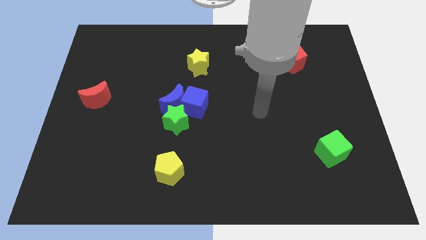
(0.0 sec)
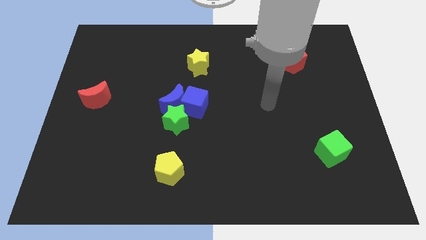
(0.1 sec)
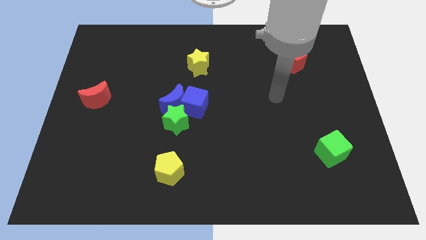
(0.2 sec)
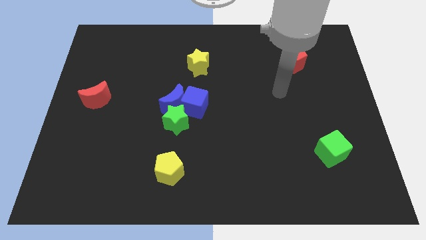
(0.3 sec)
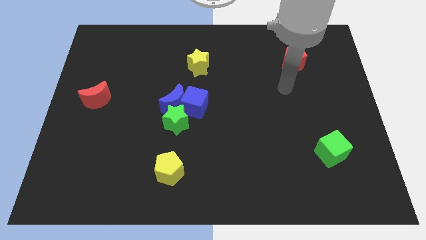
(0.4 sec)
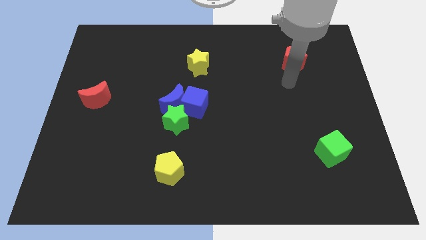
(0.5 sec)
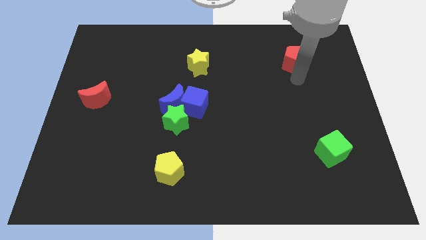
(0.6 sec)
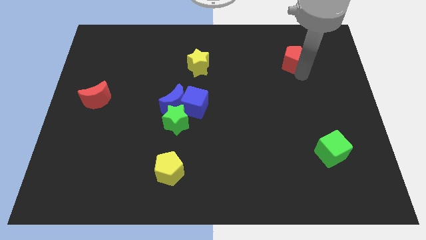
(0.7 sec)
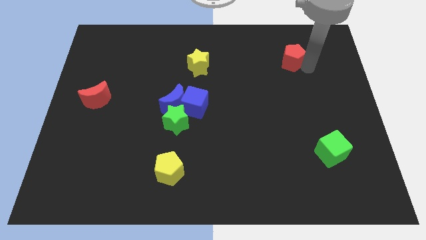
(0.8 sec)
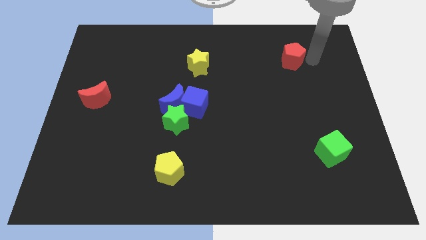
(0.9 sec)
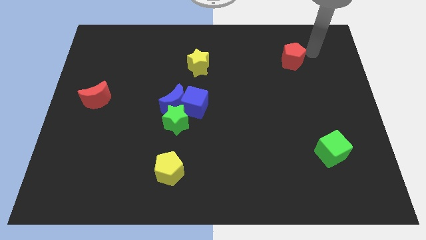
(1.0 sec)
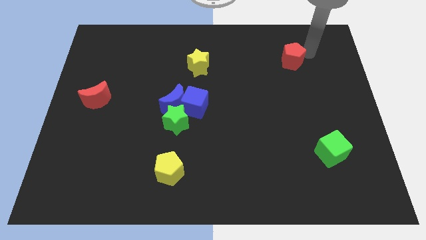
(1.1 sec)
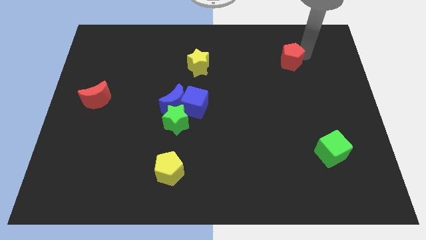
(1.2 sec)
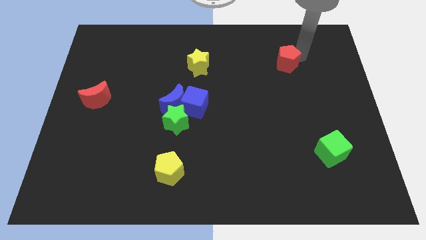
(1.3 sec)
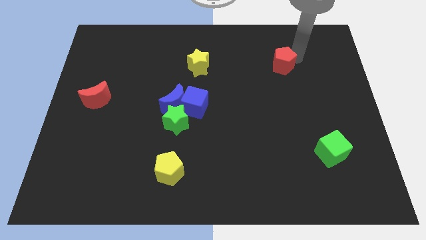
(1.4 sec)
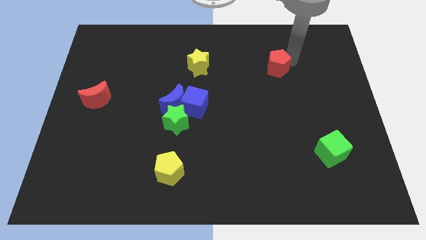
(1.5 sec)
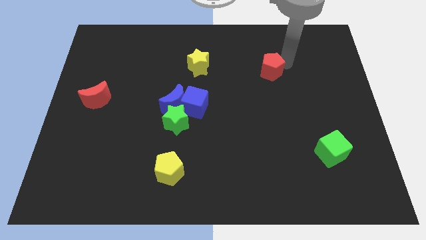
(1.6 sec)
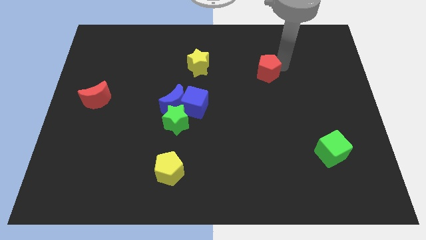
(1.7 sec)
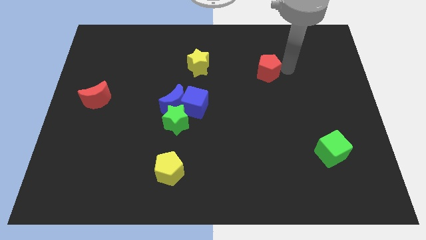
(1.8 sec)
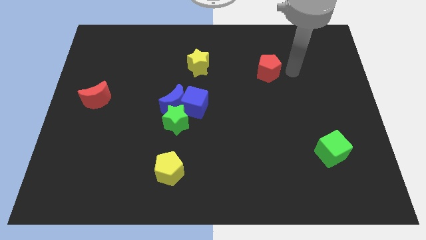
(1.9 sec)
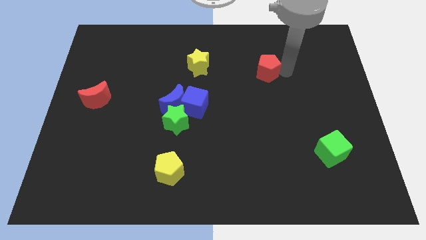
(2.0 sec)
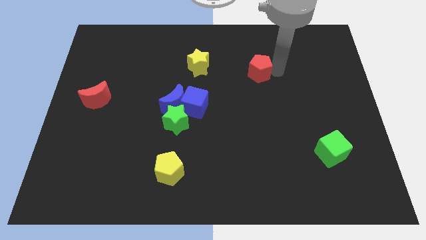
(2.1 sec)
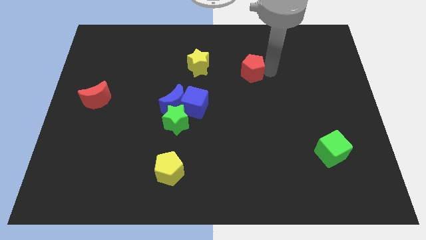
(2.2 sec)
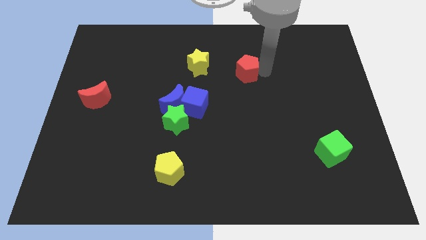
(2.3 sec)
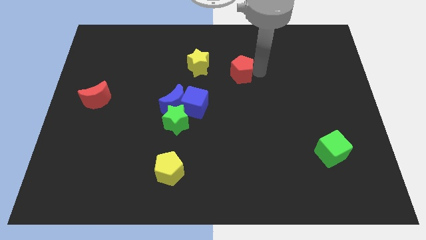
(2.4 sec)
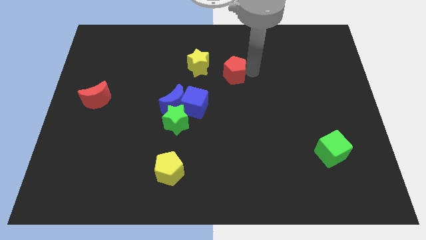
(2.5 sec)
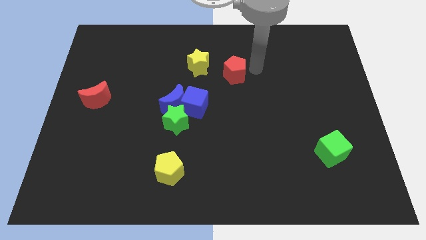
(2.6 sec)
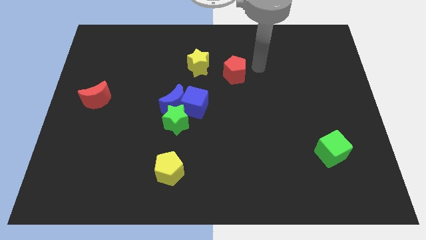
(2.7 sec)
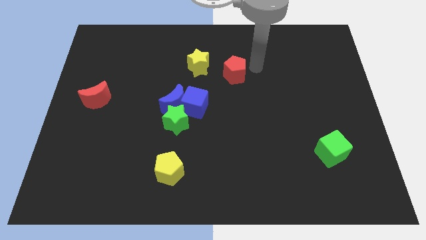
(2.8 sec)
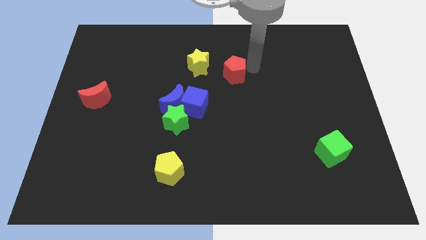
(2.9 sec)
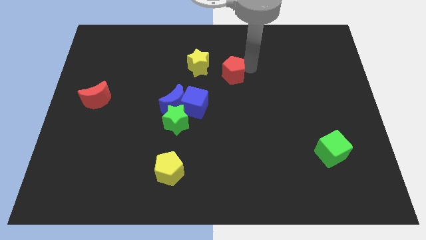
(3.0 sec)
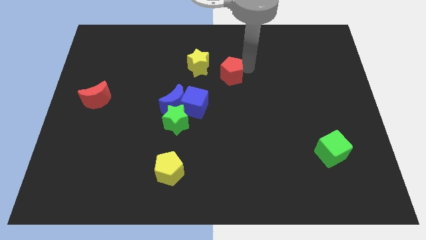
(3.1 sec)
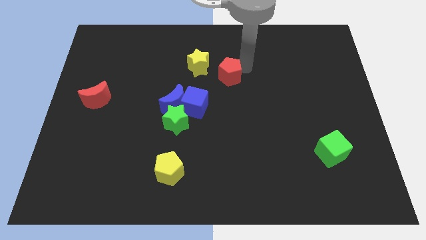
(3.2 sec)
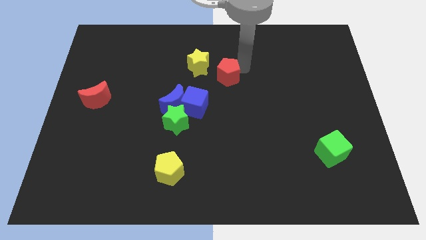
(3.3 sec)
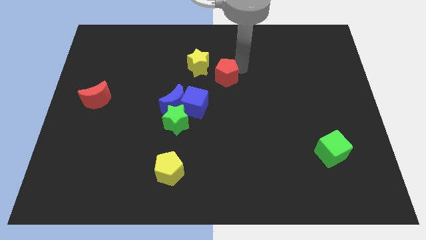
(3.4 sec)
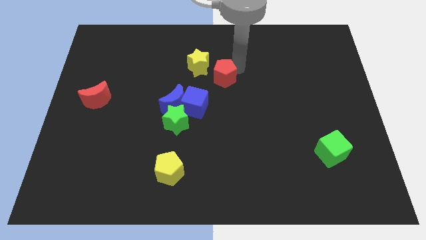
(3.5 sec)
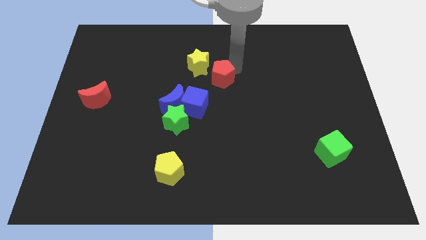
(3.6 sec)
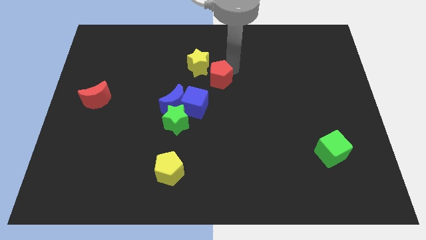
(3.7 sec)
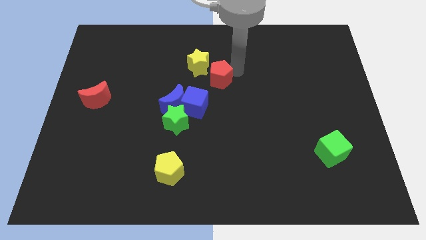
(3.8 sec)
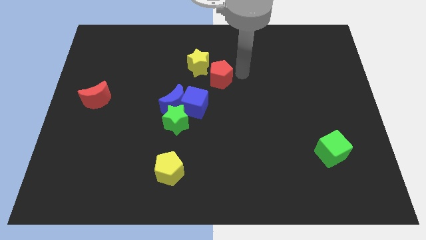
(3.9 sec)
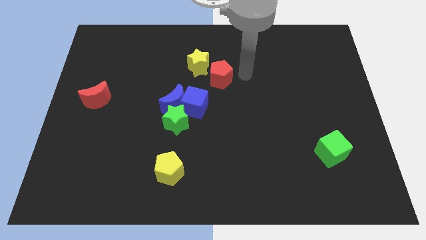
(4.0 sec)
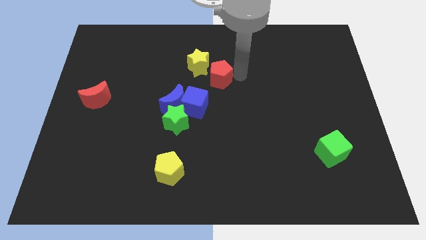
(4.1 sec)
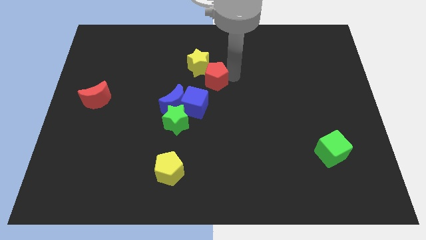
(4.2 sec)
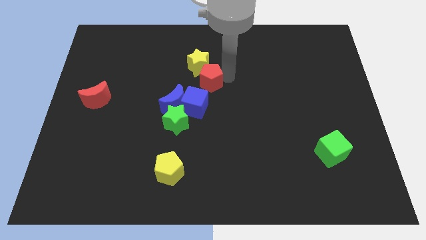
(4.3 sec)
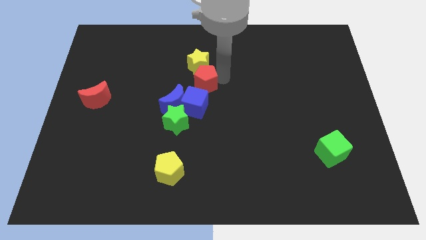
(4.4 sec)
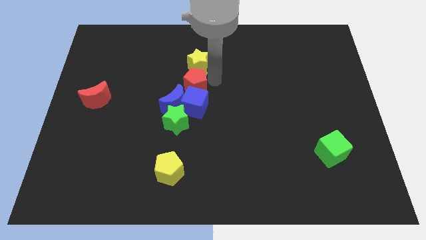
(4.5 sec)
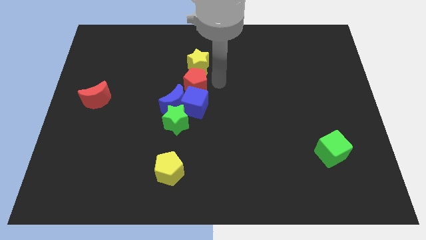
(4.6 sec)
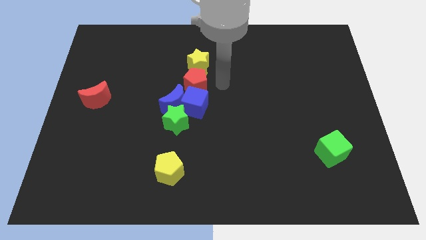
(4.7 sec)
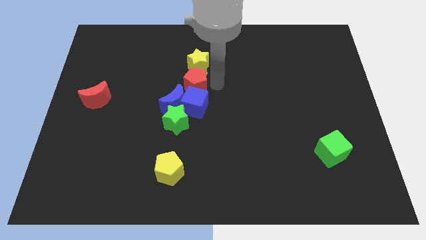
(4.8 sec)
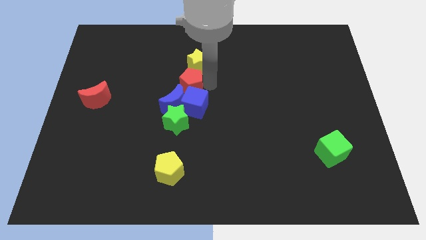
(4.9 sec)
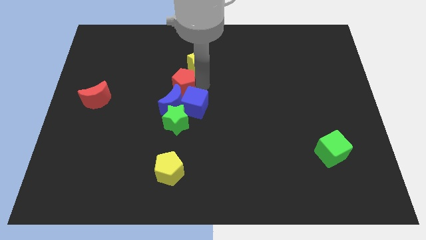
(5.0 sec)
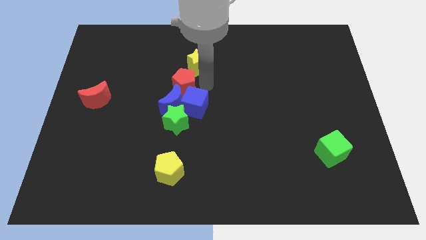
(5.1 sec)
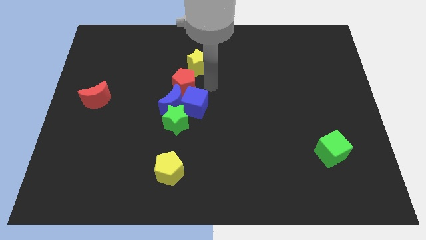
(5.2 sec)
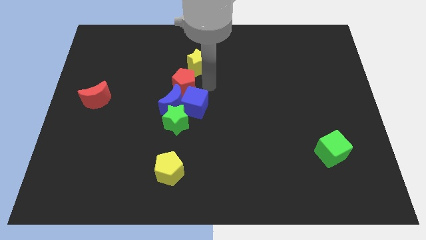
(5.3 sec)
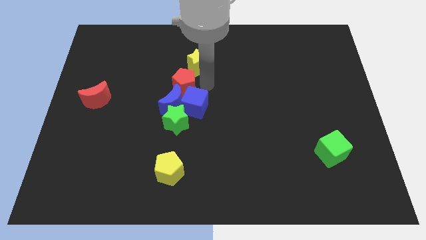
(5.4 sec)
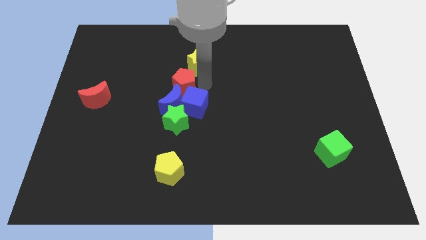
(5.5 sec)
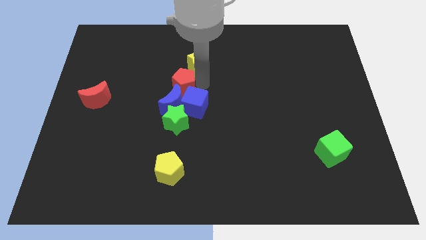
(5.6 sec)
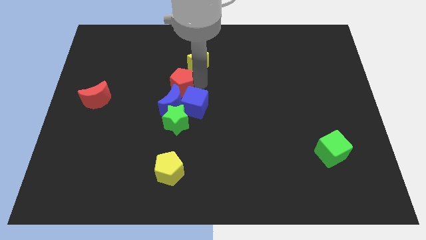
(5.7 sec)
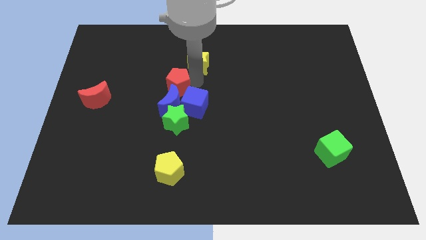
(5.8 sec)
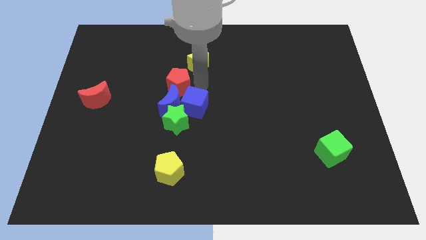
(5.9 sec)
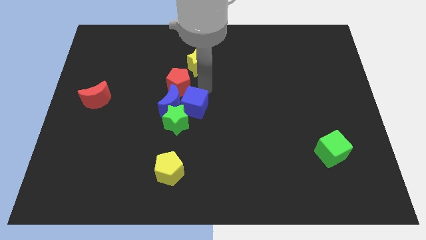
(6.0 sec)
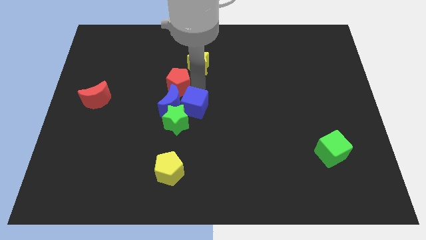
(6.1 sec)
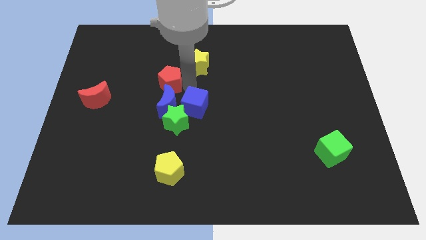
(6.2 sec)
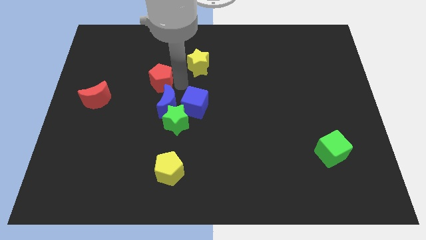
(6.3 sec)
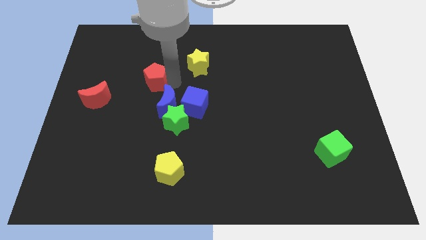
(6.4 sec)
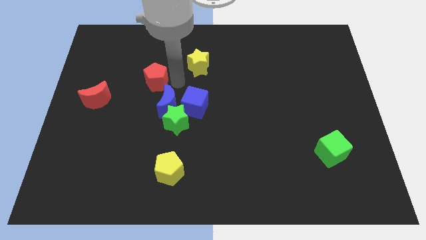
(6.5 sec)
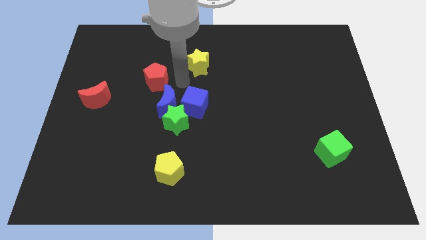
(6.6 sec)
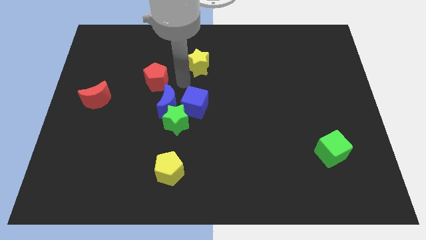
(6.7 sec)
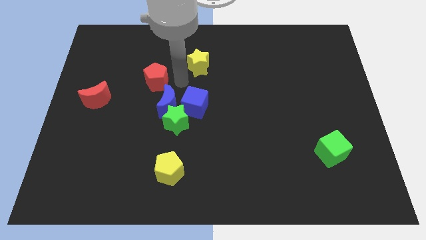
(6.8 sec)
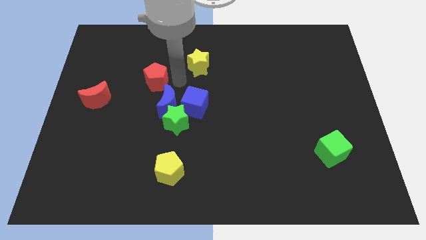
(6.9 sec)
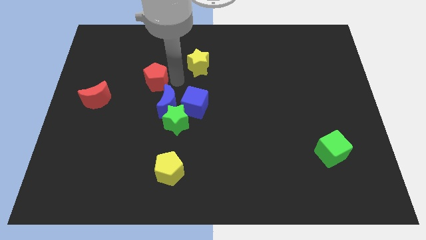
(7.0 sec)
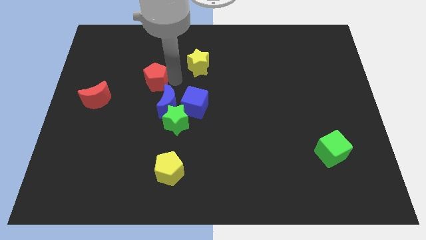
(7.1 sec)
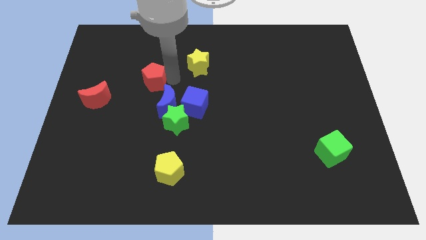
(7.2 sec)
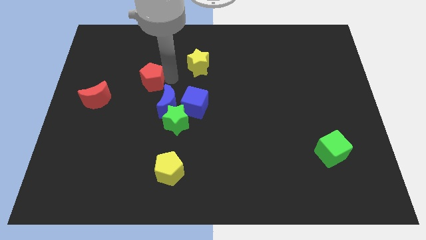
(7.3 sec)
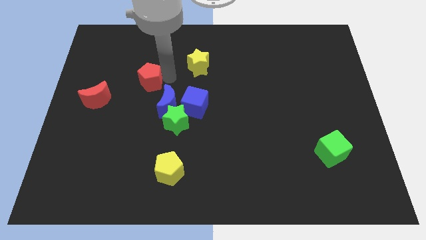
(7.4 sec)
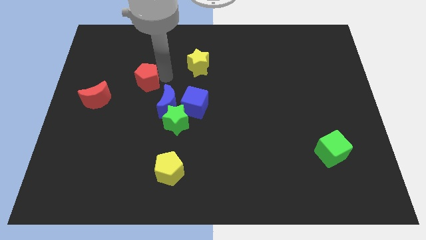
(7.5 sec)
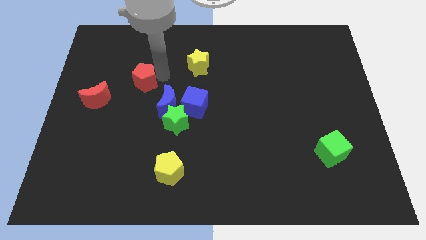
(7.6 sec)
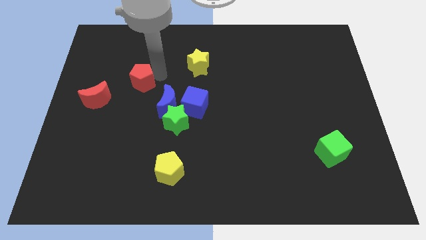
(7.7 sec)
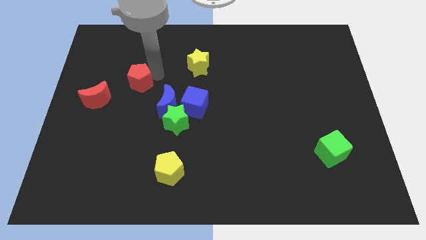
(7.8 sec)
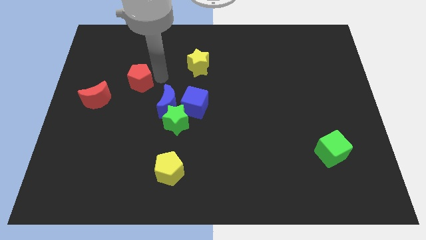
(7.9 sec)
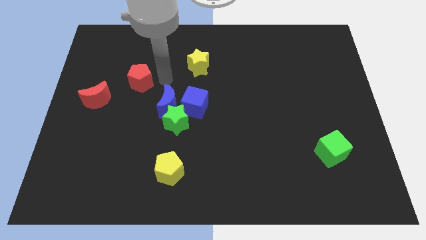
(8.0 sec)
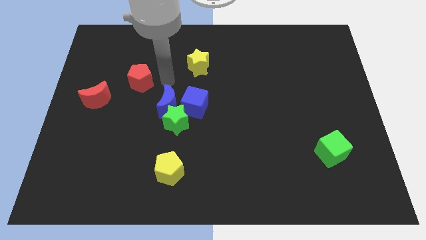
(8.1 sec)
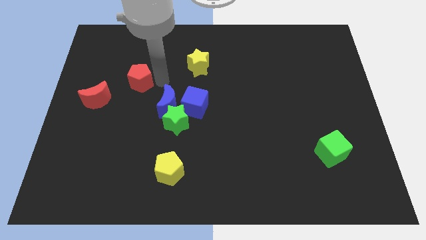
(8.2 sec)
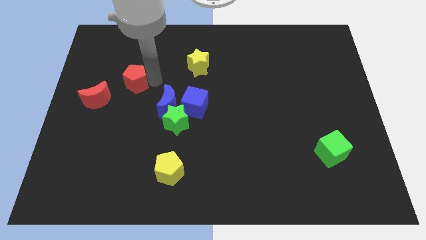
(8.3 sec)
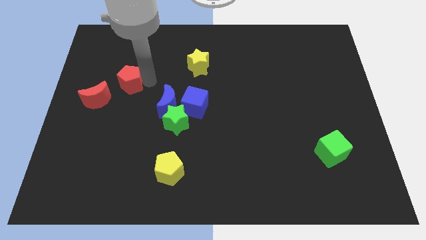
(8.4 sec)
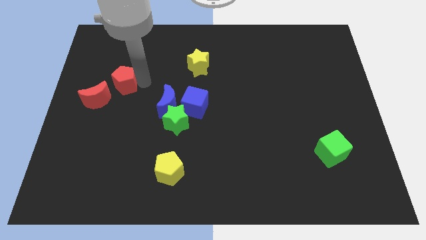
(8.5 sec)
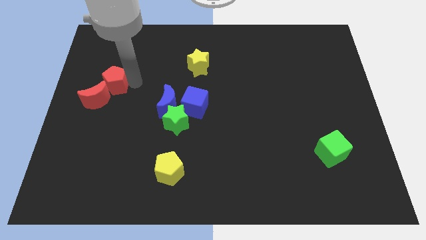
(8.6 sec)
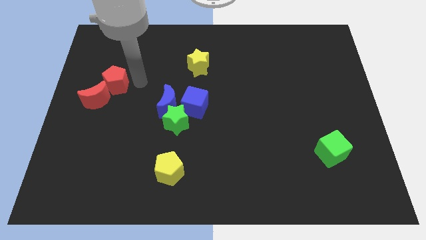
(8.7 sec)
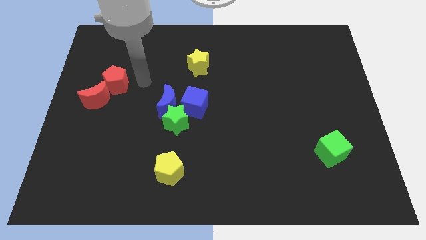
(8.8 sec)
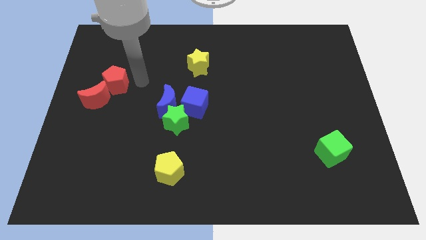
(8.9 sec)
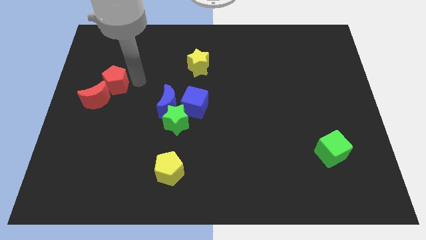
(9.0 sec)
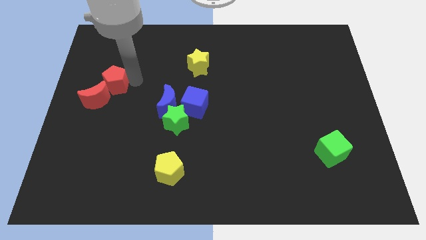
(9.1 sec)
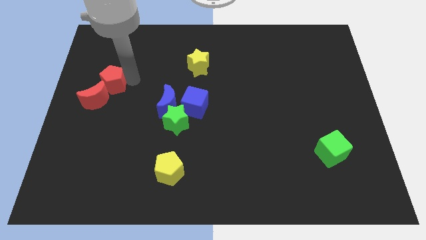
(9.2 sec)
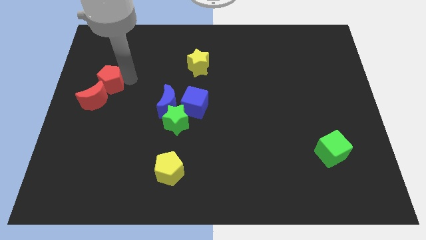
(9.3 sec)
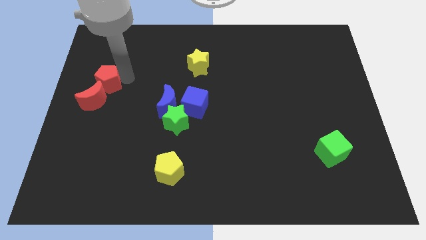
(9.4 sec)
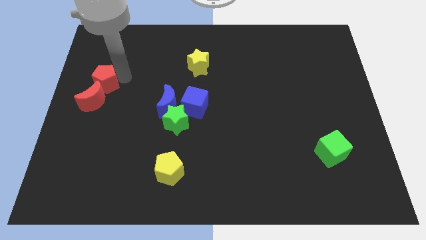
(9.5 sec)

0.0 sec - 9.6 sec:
slide the red pentagon to the left side
